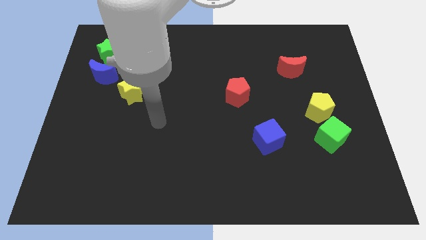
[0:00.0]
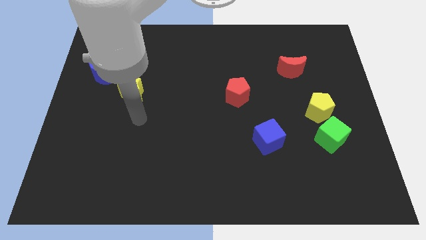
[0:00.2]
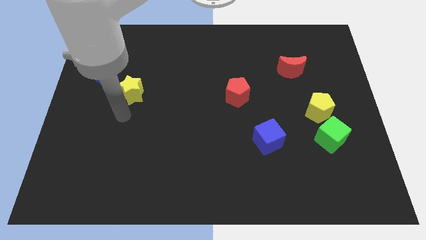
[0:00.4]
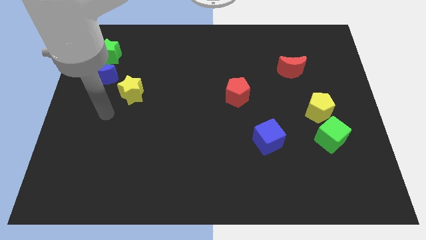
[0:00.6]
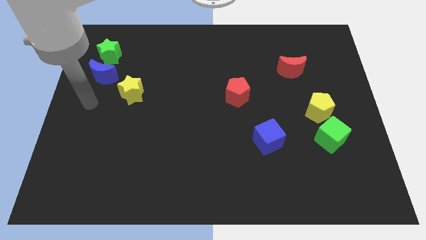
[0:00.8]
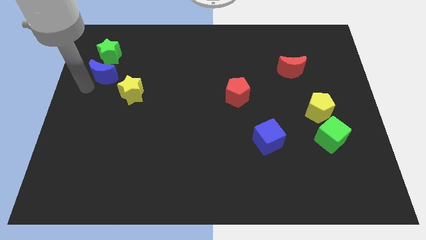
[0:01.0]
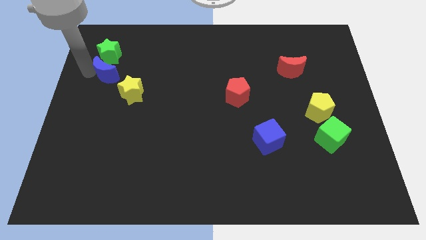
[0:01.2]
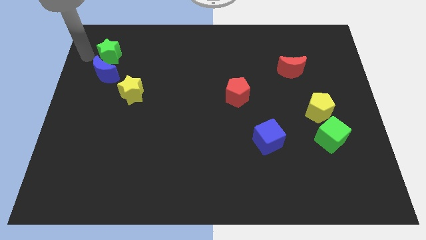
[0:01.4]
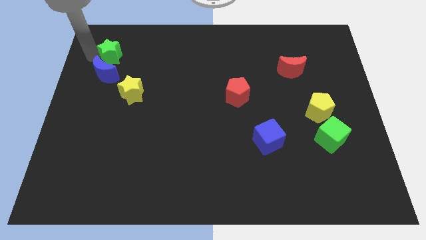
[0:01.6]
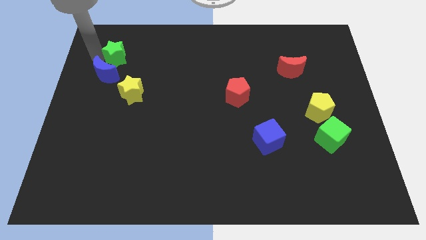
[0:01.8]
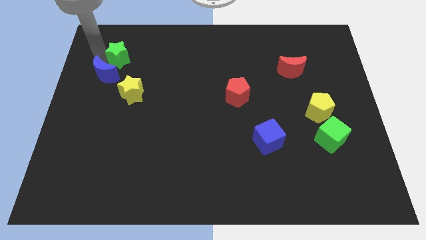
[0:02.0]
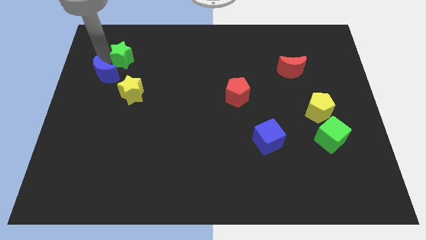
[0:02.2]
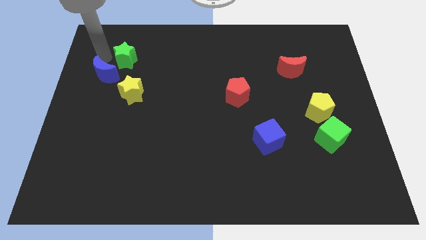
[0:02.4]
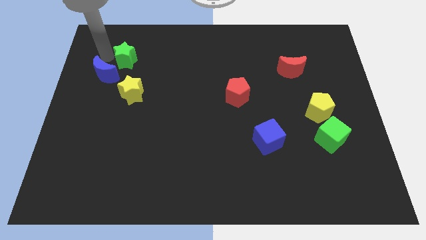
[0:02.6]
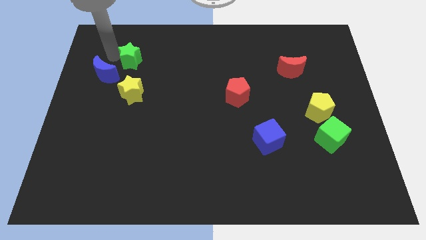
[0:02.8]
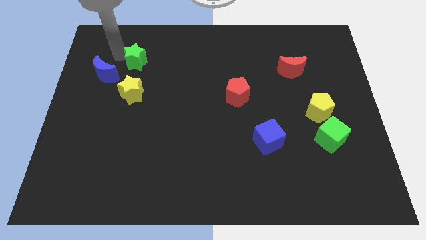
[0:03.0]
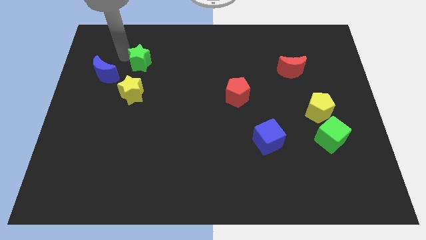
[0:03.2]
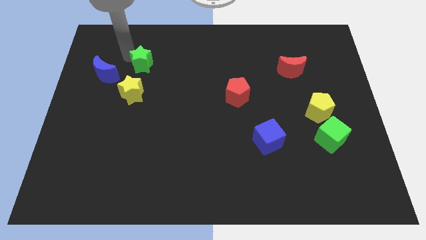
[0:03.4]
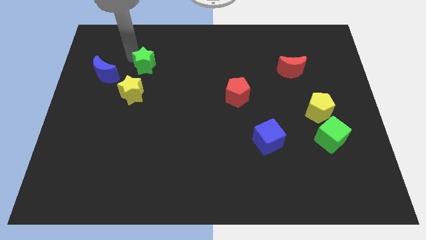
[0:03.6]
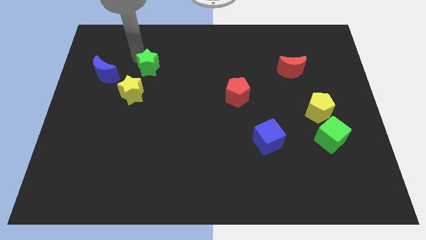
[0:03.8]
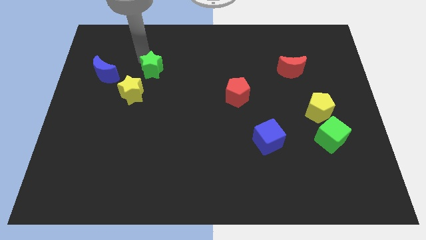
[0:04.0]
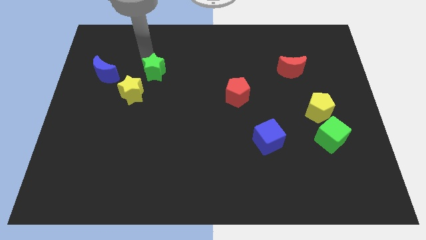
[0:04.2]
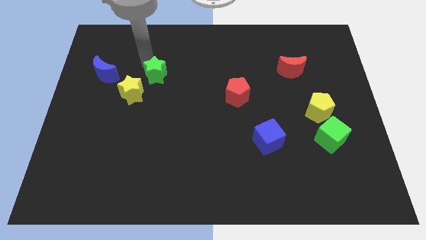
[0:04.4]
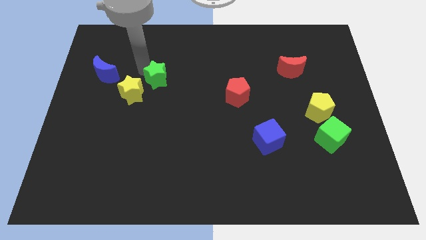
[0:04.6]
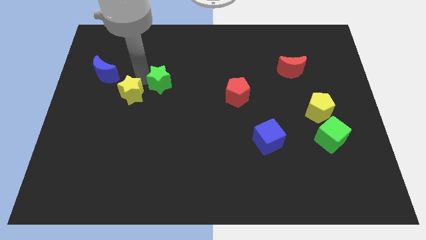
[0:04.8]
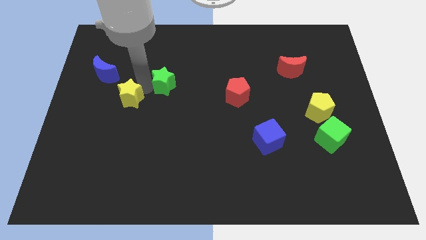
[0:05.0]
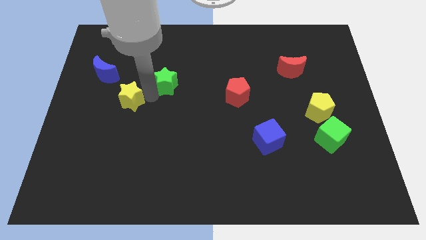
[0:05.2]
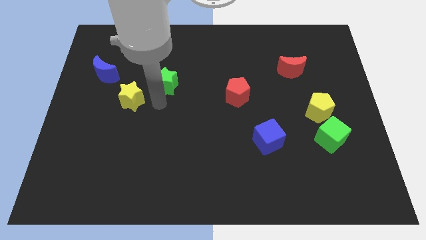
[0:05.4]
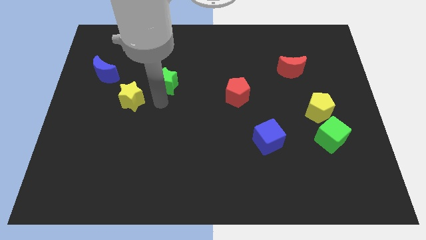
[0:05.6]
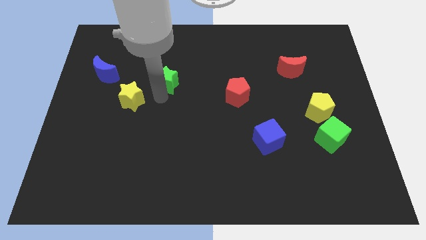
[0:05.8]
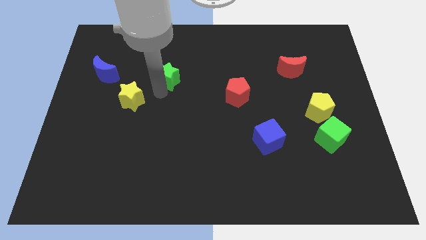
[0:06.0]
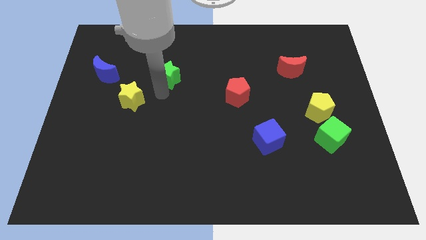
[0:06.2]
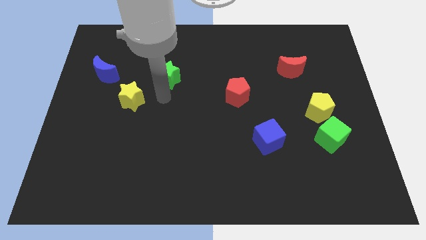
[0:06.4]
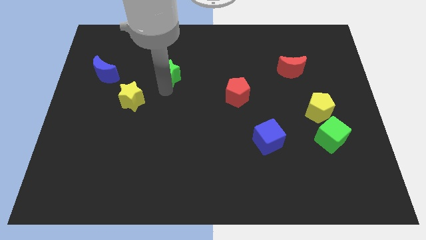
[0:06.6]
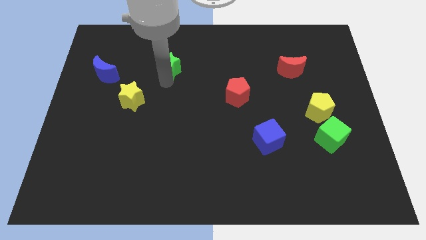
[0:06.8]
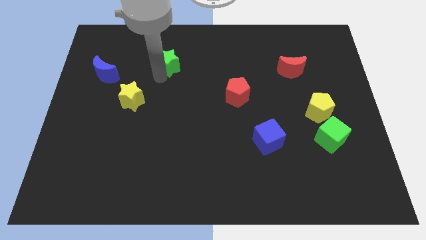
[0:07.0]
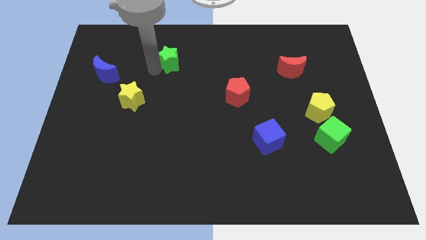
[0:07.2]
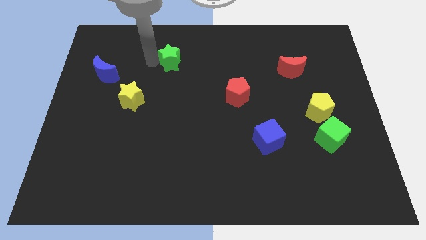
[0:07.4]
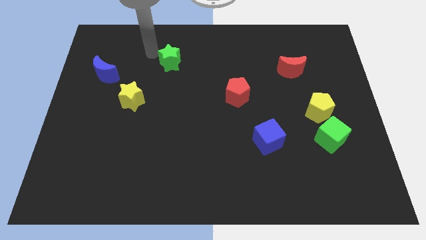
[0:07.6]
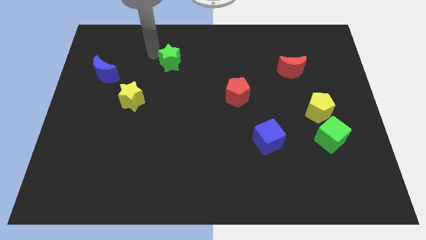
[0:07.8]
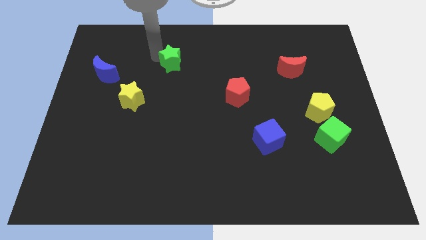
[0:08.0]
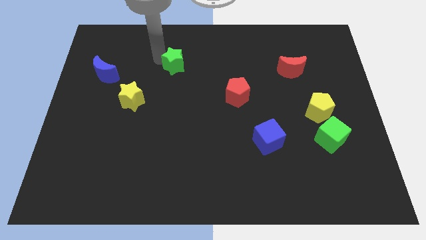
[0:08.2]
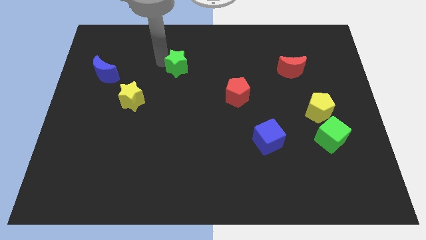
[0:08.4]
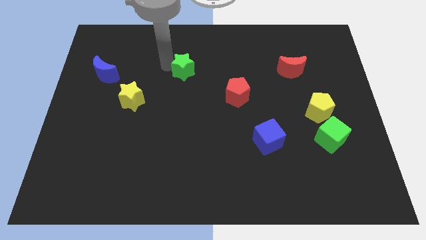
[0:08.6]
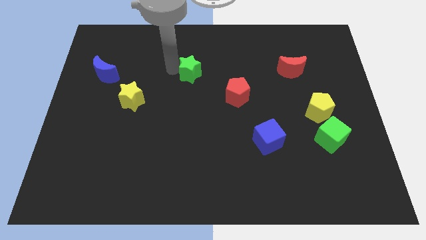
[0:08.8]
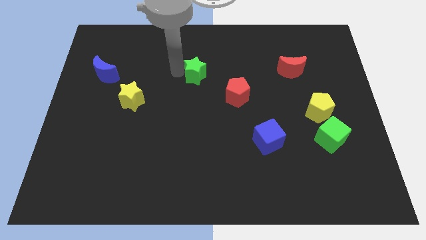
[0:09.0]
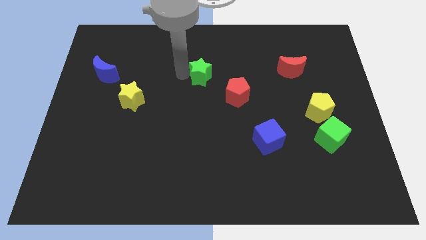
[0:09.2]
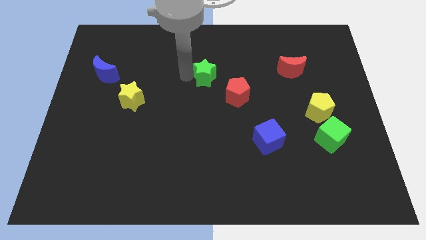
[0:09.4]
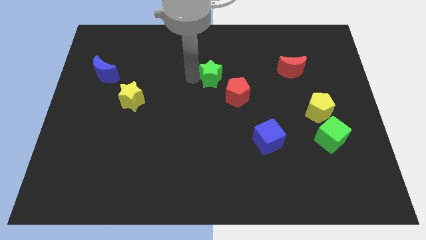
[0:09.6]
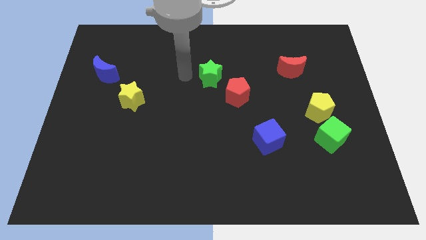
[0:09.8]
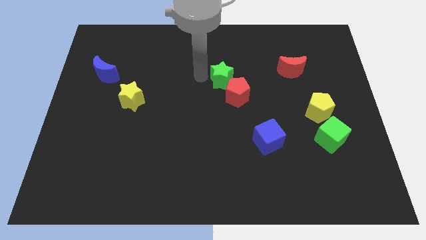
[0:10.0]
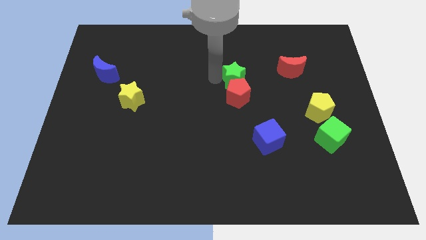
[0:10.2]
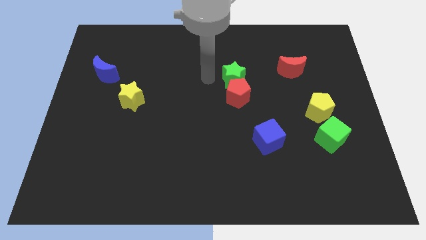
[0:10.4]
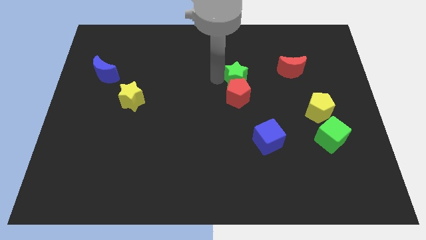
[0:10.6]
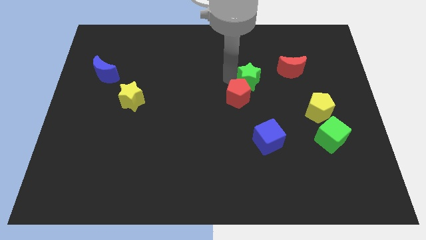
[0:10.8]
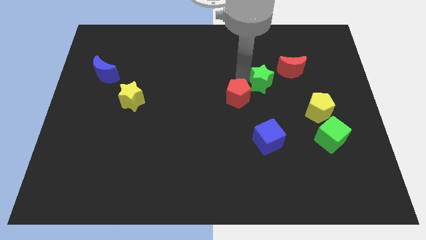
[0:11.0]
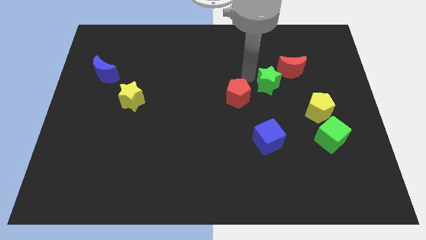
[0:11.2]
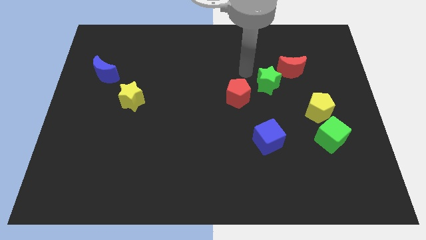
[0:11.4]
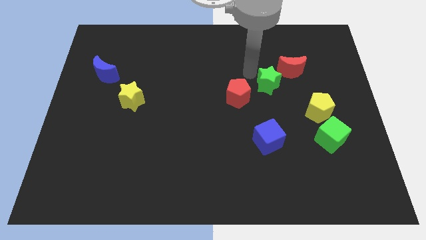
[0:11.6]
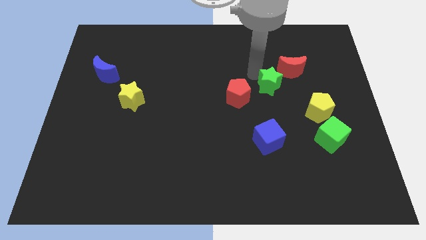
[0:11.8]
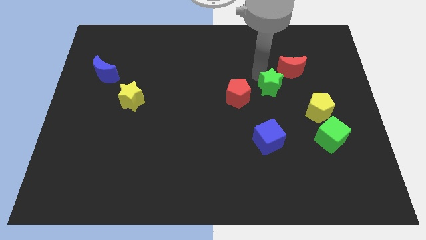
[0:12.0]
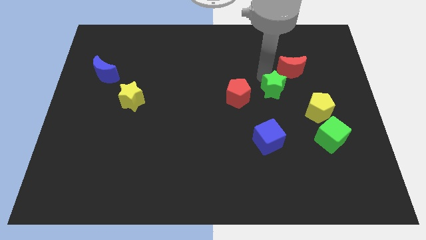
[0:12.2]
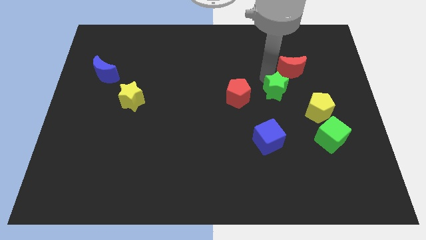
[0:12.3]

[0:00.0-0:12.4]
put the green star to the bottom of the red moon
